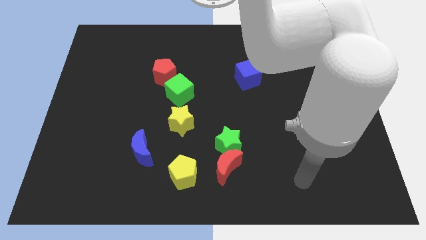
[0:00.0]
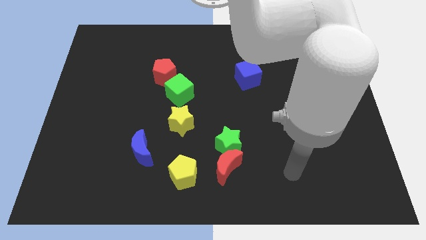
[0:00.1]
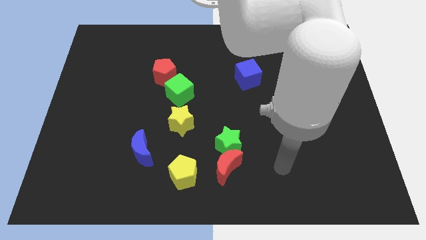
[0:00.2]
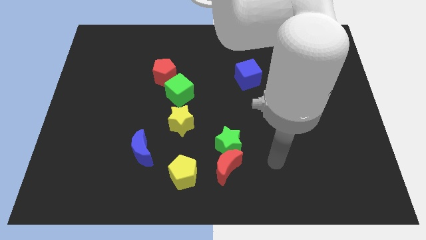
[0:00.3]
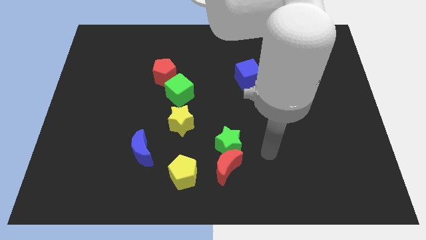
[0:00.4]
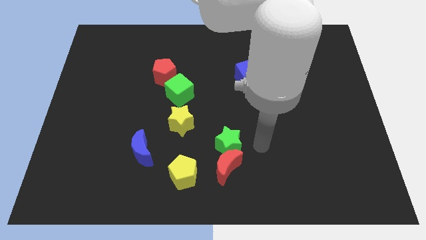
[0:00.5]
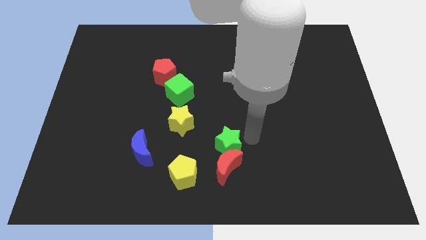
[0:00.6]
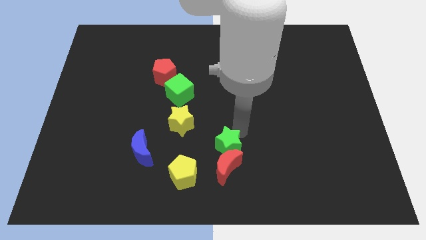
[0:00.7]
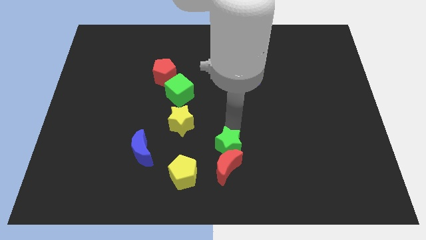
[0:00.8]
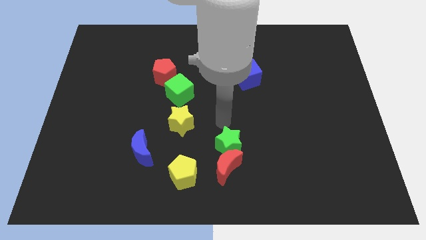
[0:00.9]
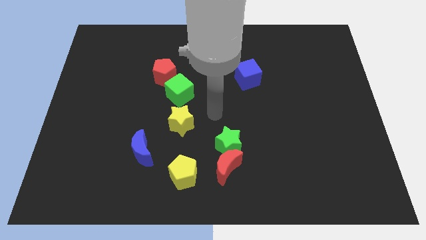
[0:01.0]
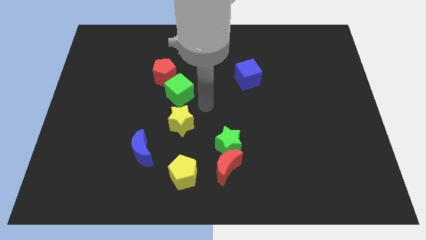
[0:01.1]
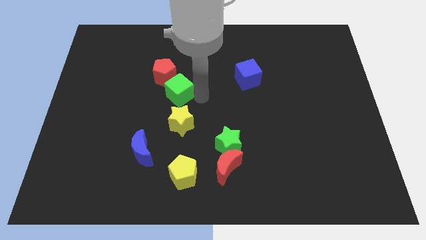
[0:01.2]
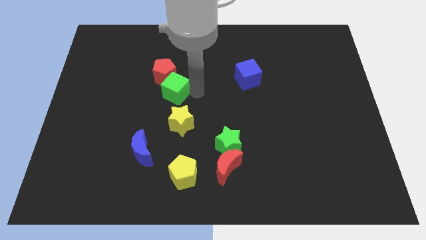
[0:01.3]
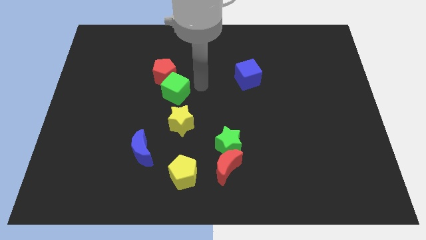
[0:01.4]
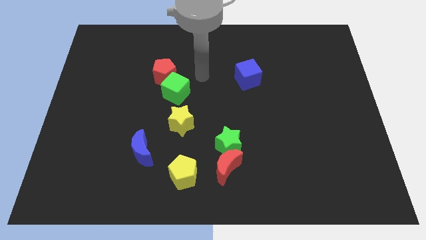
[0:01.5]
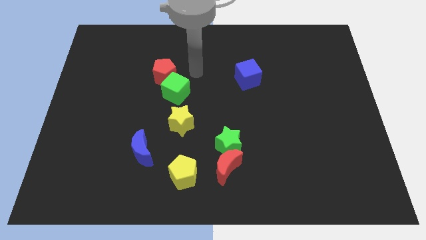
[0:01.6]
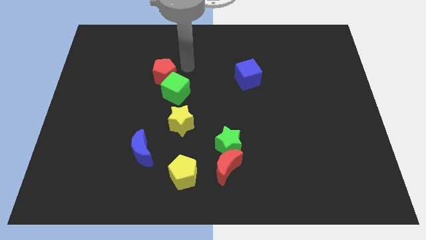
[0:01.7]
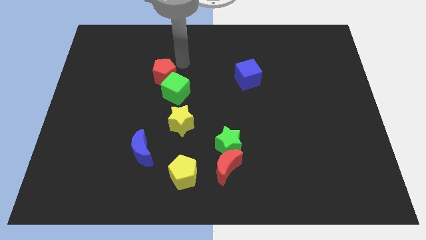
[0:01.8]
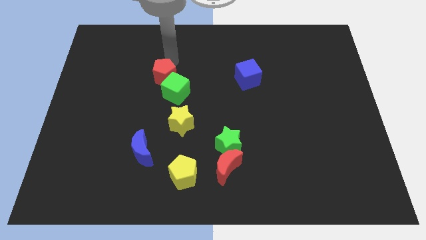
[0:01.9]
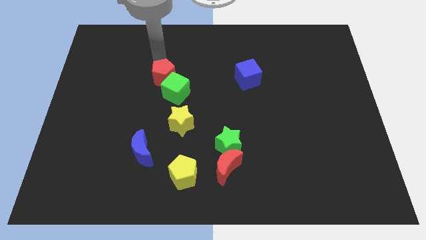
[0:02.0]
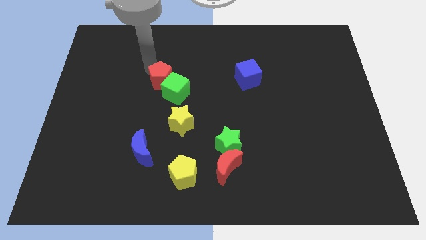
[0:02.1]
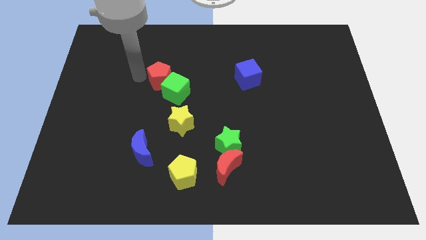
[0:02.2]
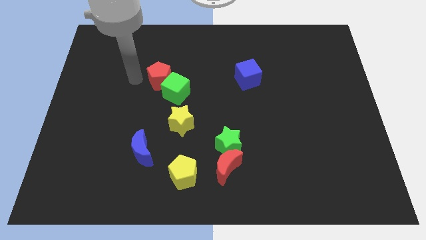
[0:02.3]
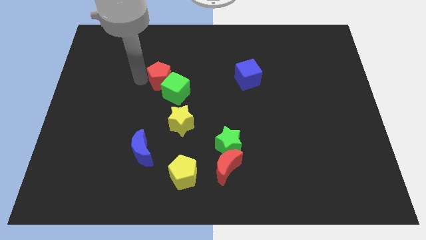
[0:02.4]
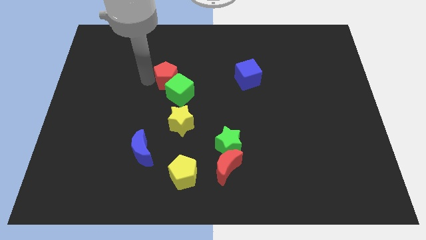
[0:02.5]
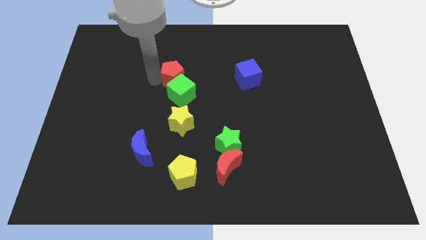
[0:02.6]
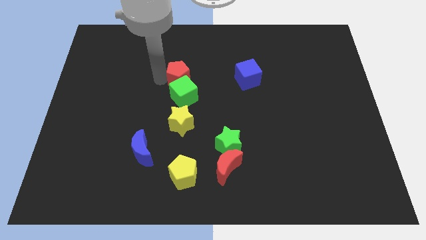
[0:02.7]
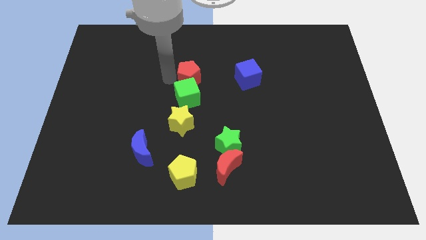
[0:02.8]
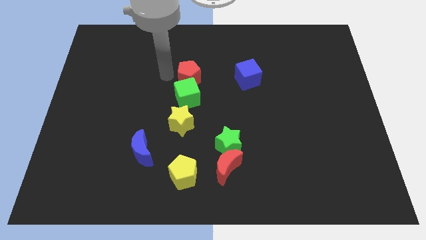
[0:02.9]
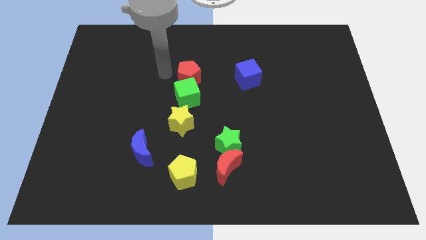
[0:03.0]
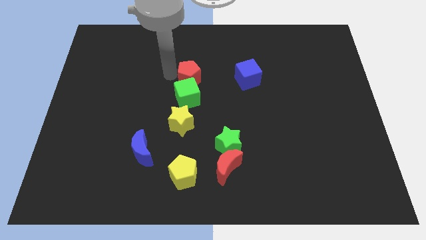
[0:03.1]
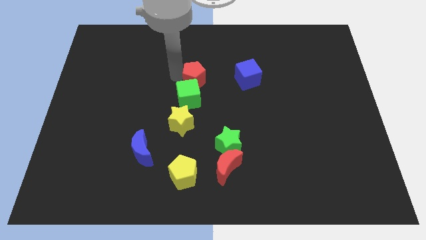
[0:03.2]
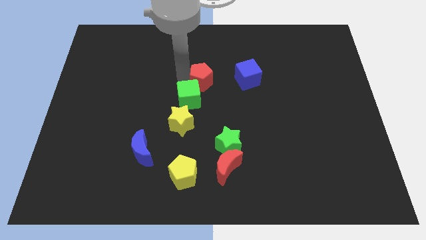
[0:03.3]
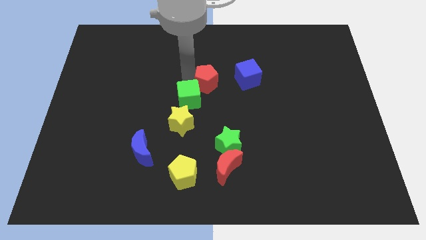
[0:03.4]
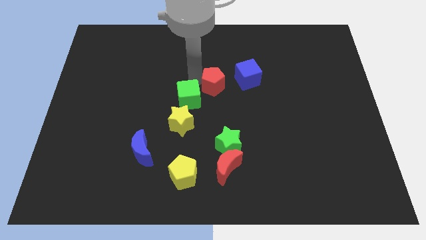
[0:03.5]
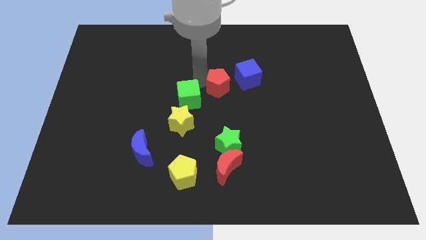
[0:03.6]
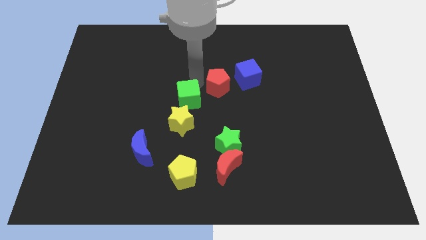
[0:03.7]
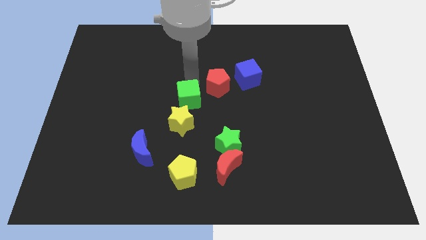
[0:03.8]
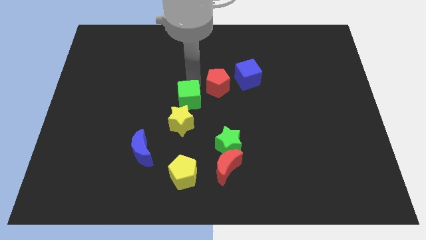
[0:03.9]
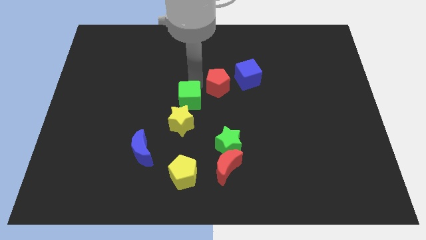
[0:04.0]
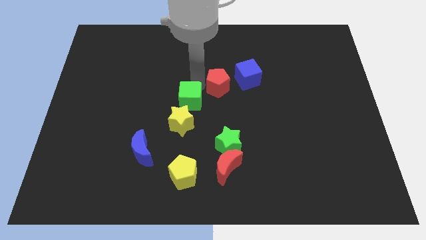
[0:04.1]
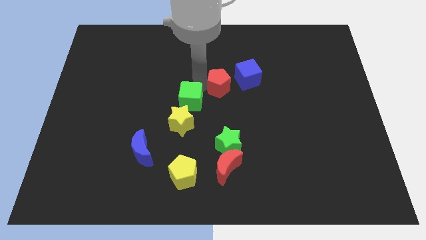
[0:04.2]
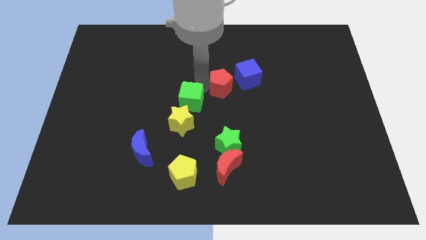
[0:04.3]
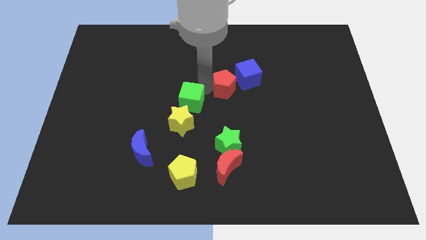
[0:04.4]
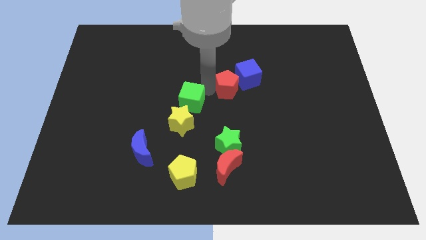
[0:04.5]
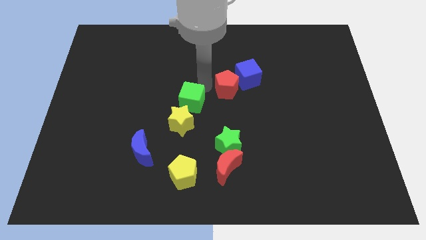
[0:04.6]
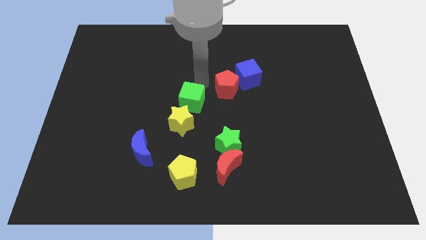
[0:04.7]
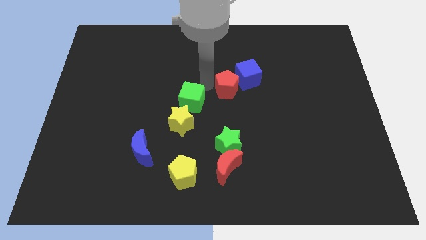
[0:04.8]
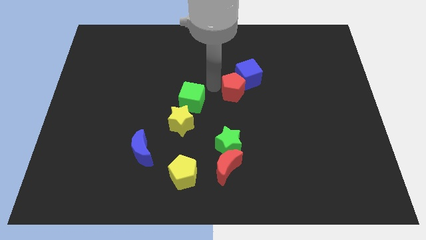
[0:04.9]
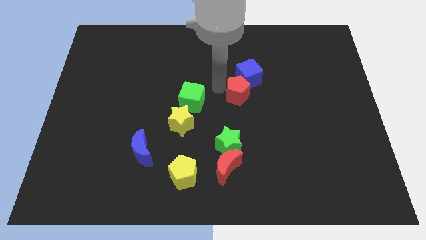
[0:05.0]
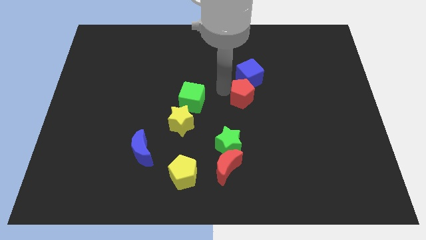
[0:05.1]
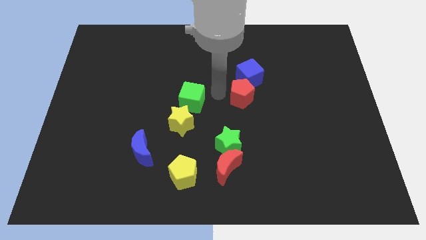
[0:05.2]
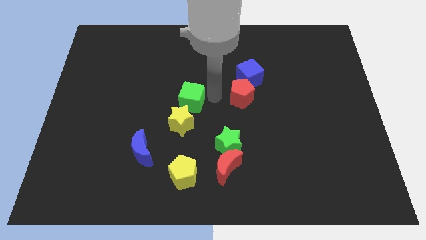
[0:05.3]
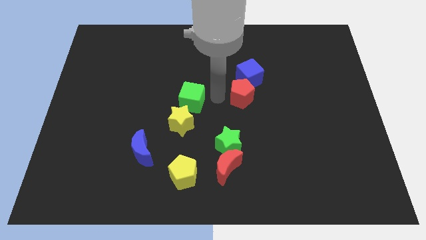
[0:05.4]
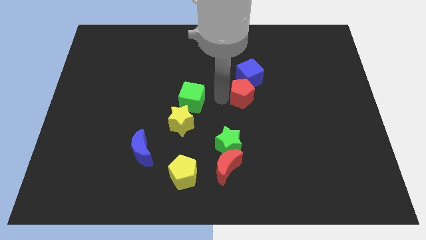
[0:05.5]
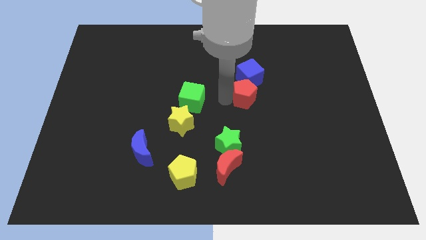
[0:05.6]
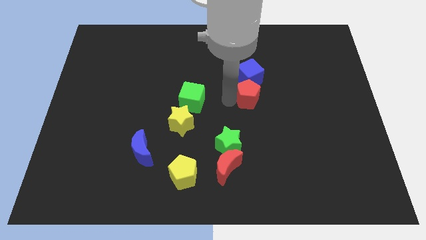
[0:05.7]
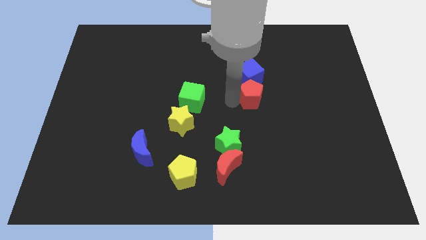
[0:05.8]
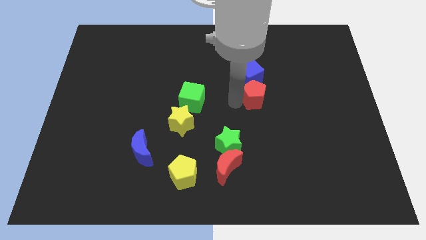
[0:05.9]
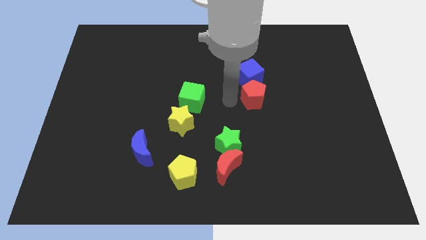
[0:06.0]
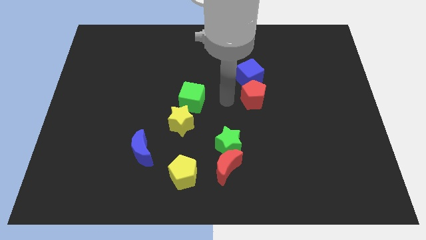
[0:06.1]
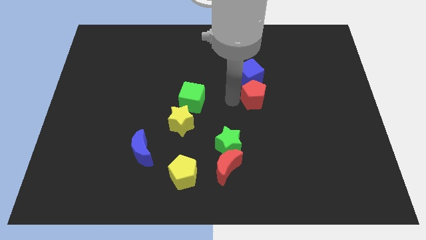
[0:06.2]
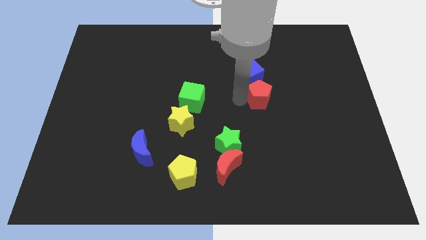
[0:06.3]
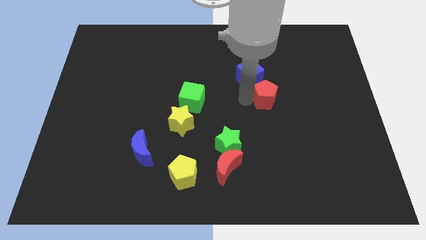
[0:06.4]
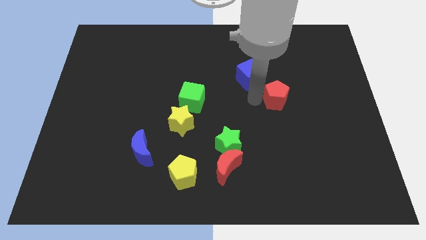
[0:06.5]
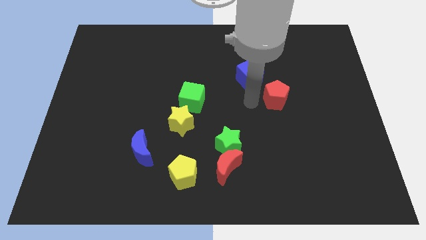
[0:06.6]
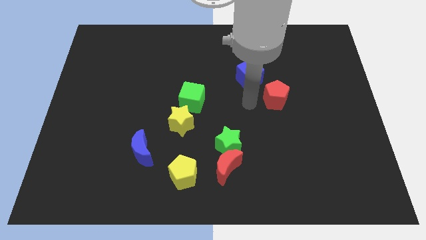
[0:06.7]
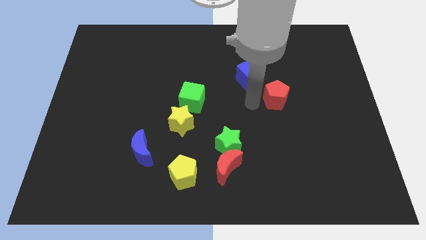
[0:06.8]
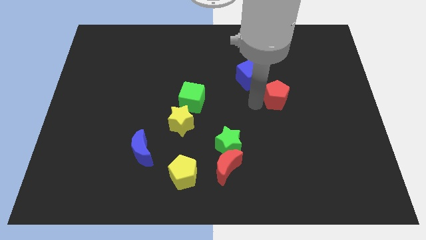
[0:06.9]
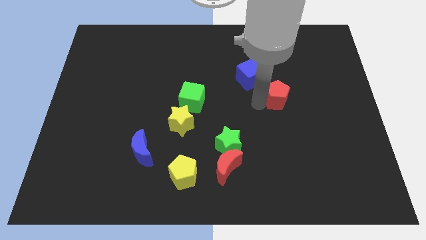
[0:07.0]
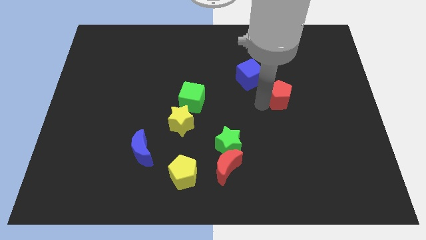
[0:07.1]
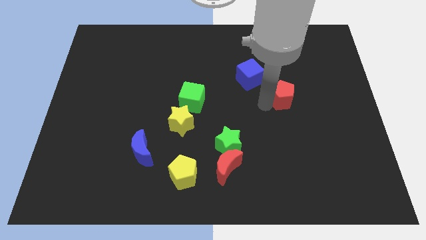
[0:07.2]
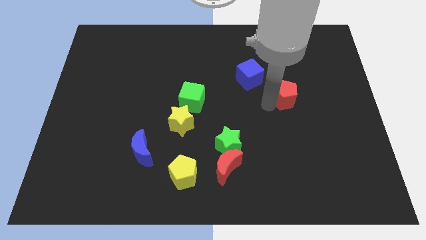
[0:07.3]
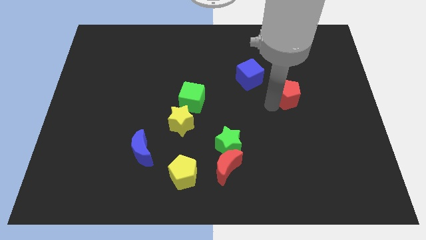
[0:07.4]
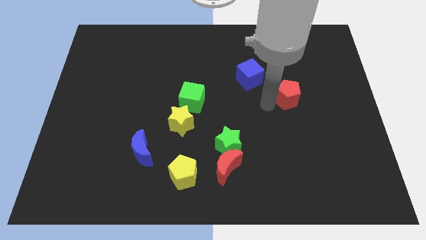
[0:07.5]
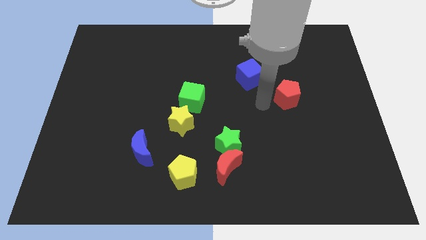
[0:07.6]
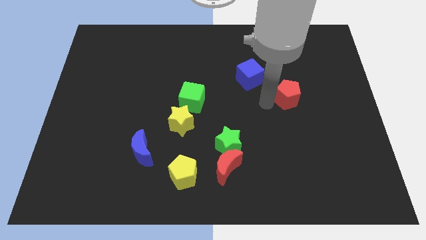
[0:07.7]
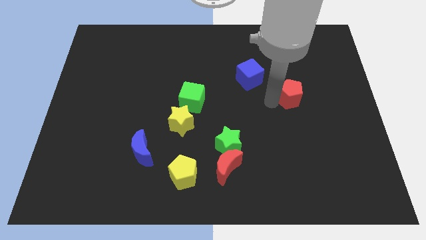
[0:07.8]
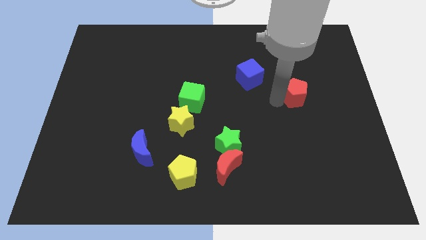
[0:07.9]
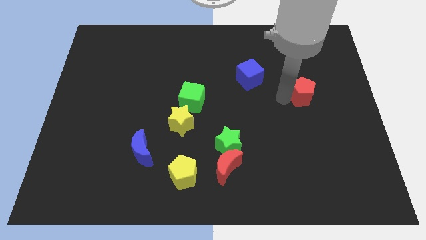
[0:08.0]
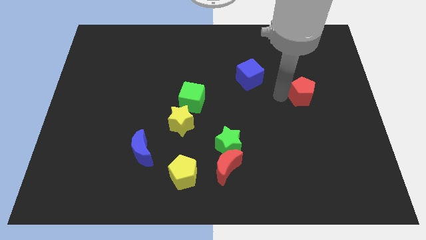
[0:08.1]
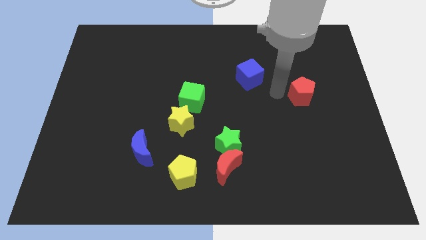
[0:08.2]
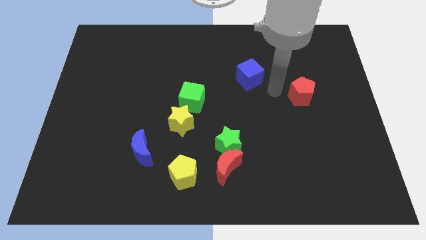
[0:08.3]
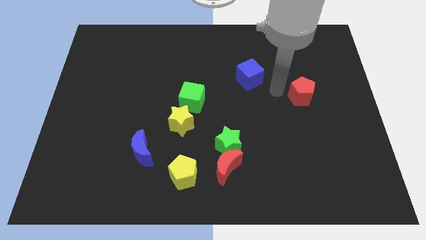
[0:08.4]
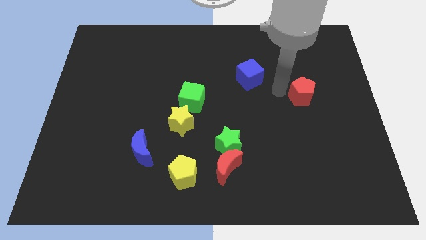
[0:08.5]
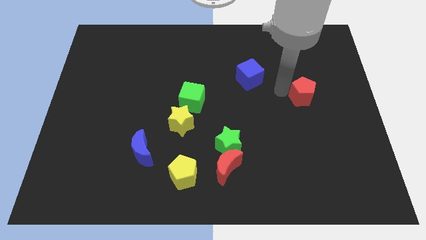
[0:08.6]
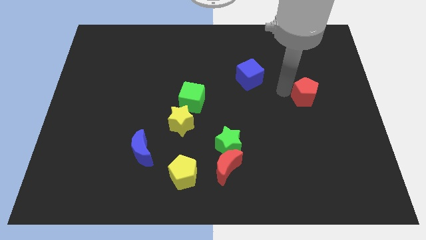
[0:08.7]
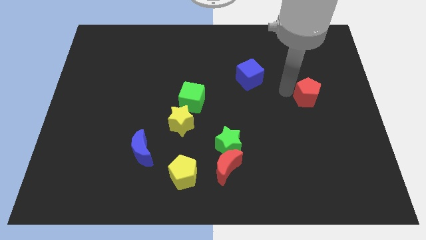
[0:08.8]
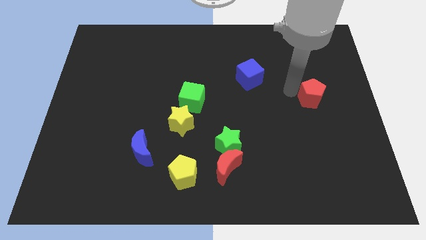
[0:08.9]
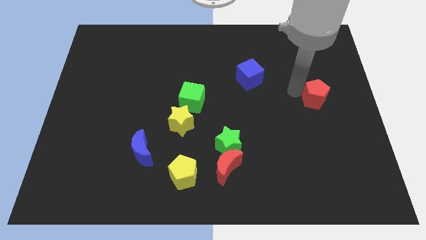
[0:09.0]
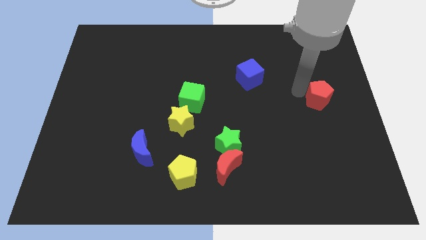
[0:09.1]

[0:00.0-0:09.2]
push the red pentagon to the center right
